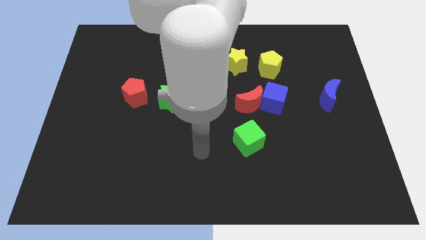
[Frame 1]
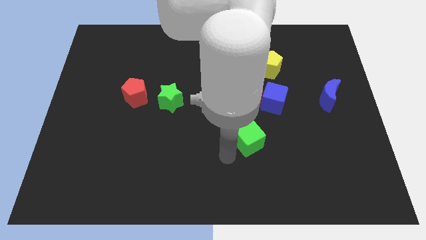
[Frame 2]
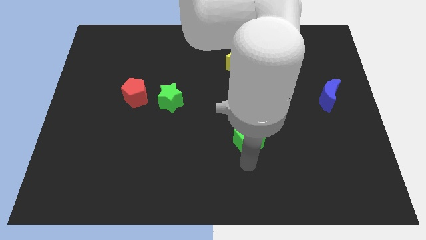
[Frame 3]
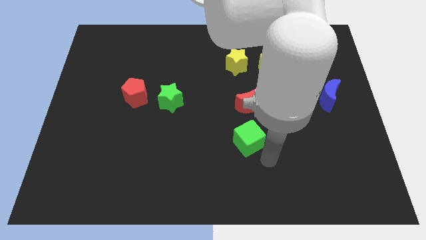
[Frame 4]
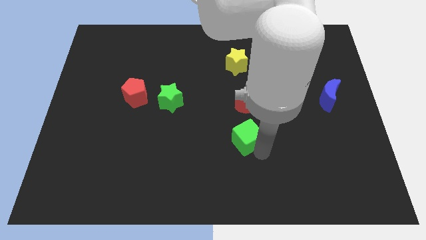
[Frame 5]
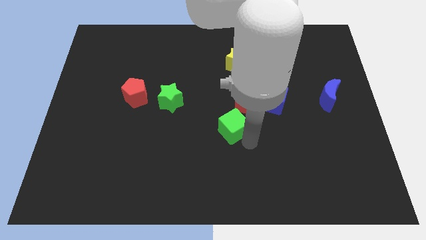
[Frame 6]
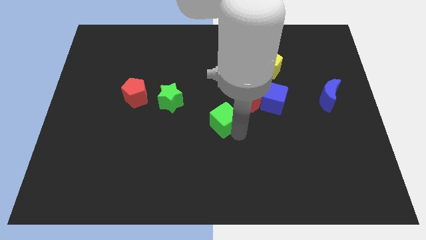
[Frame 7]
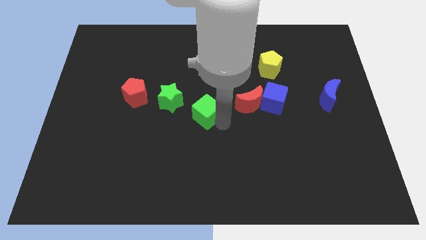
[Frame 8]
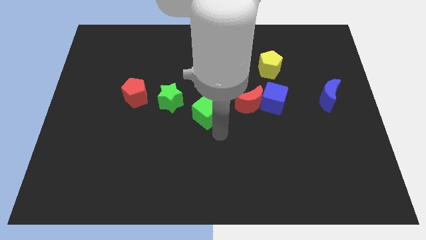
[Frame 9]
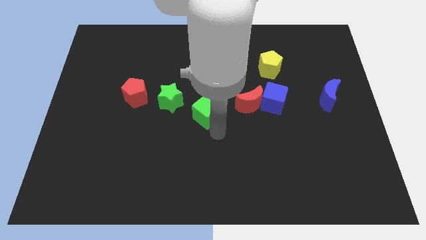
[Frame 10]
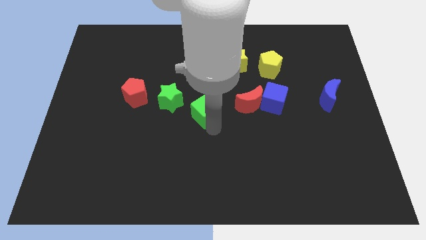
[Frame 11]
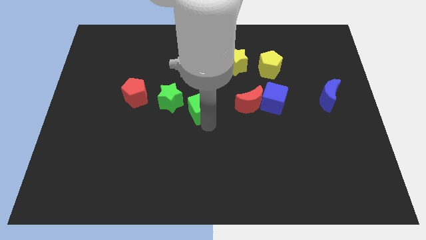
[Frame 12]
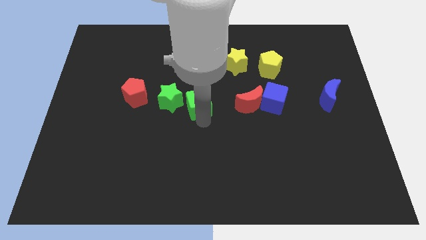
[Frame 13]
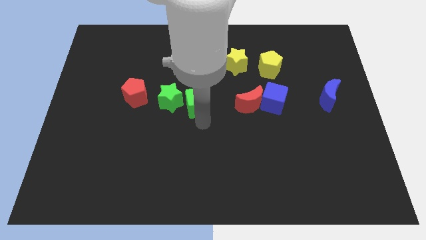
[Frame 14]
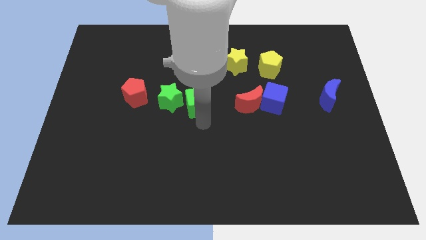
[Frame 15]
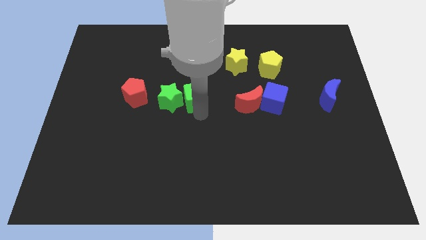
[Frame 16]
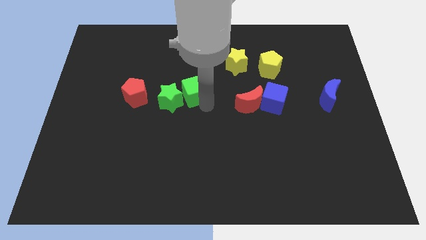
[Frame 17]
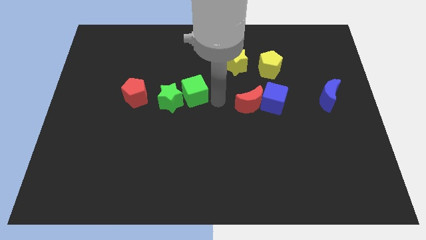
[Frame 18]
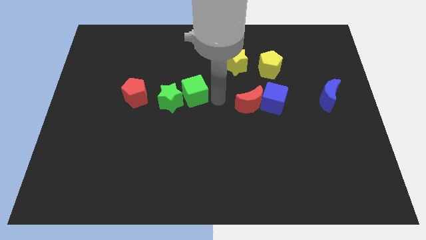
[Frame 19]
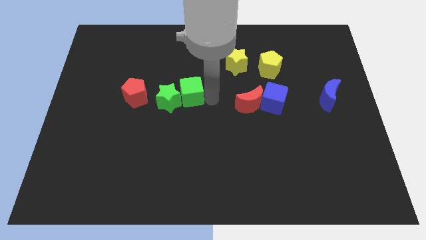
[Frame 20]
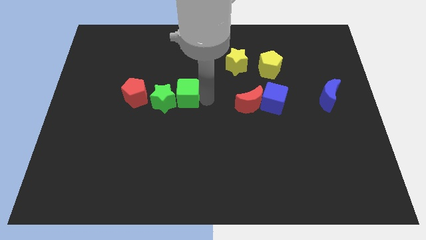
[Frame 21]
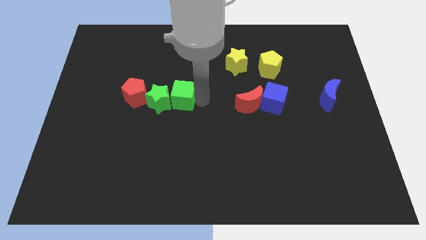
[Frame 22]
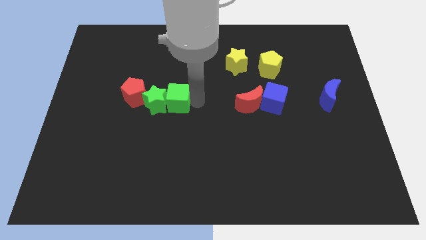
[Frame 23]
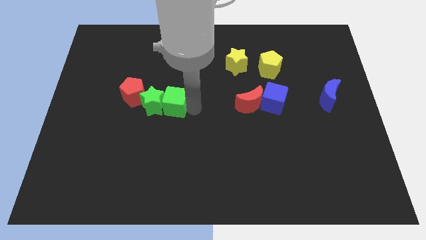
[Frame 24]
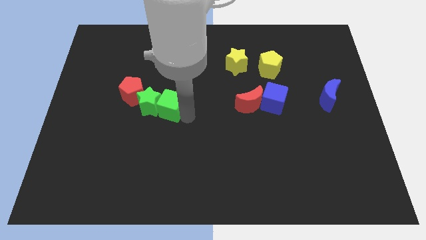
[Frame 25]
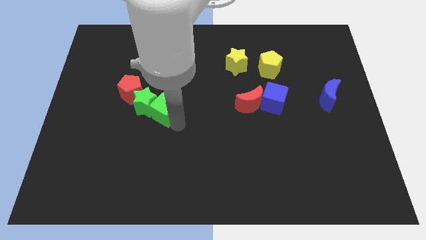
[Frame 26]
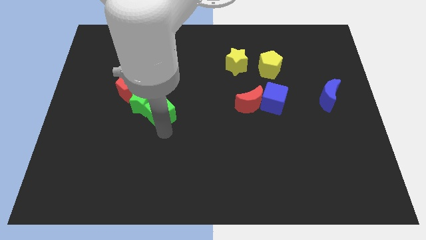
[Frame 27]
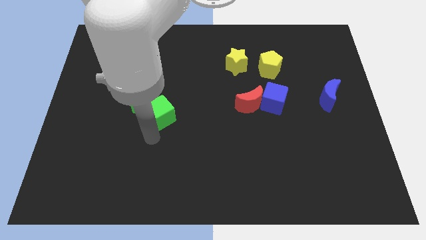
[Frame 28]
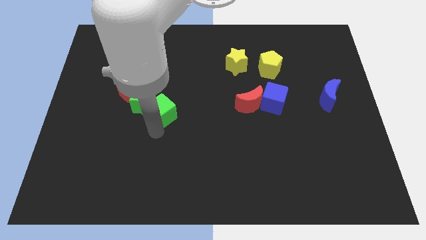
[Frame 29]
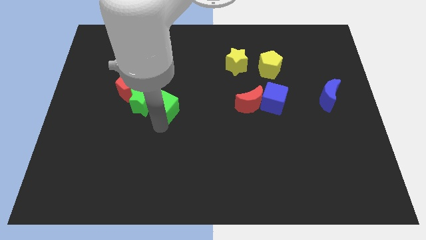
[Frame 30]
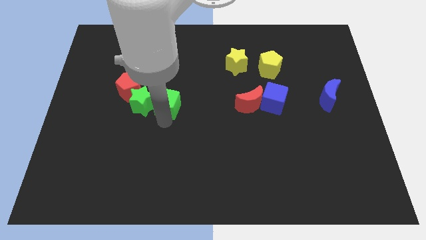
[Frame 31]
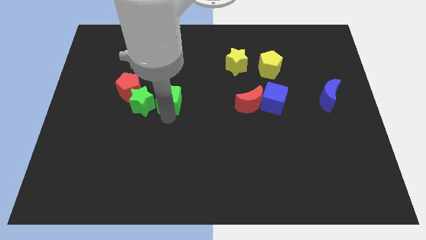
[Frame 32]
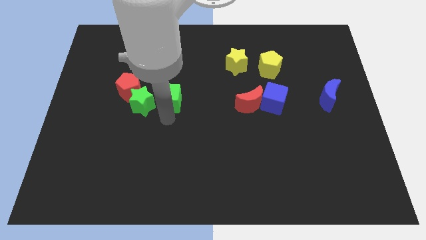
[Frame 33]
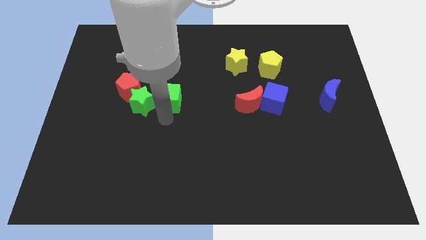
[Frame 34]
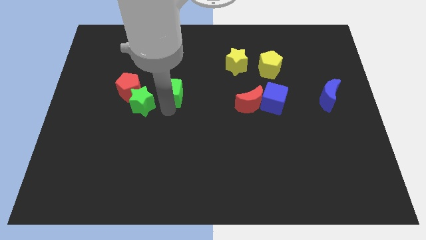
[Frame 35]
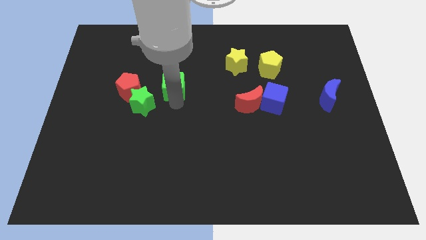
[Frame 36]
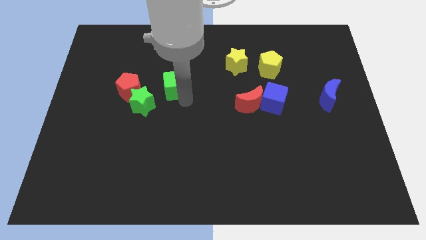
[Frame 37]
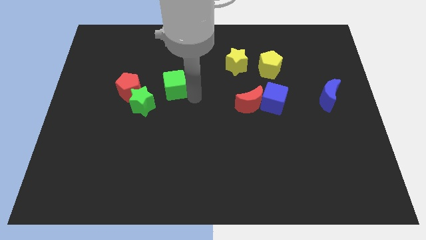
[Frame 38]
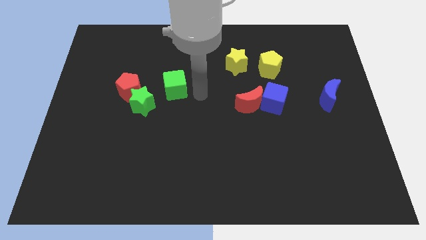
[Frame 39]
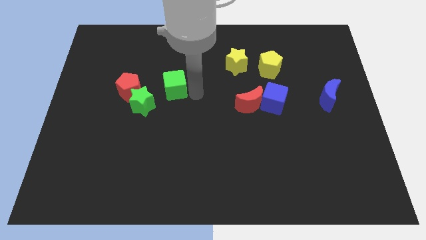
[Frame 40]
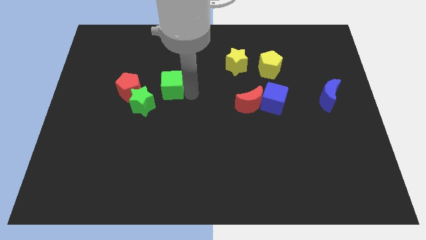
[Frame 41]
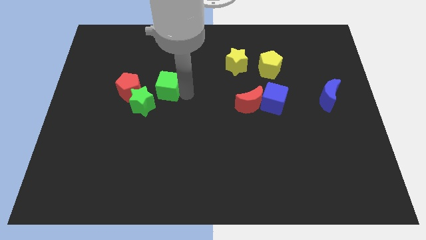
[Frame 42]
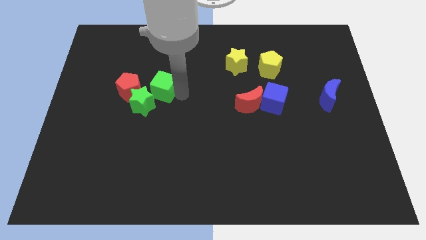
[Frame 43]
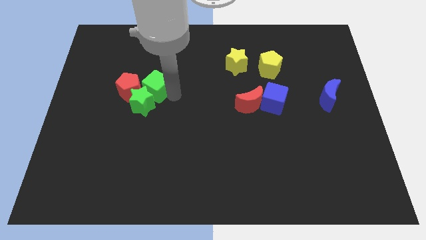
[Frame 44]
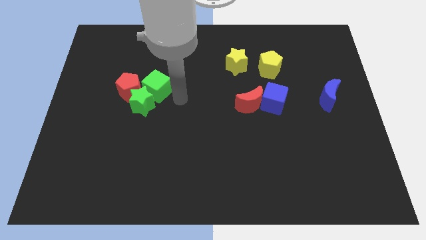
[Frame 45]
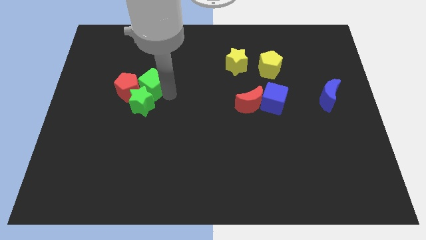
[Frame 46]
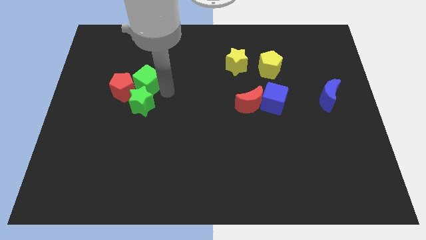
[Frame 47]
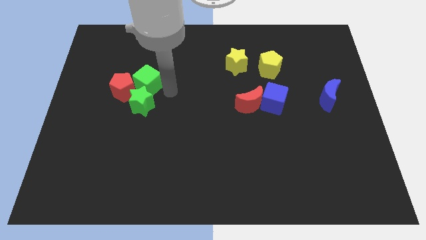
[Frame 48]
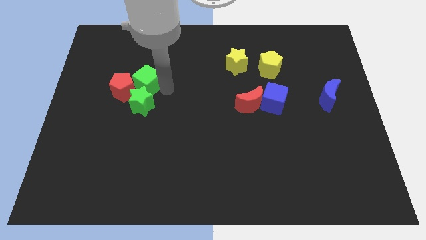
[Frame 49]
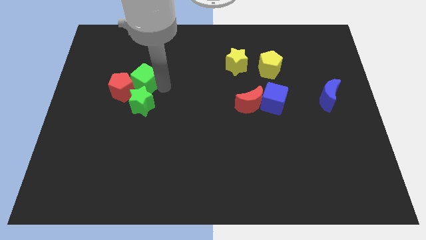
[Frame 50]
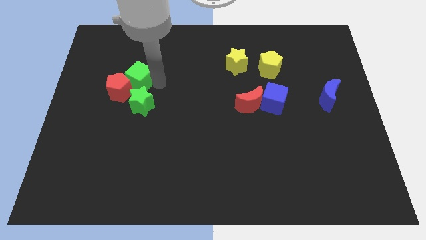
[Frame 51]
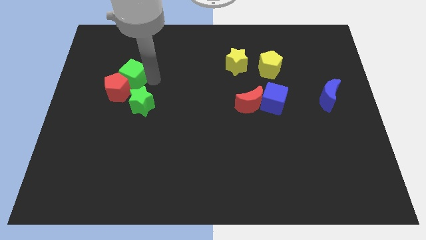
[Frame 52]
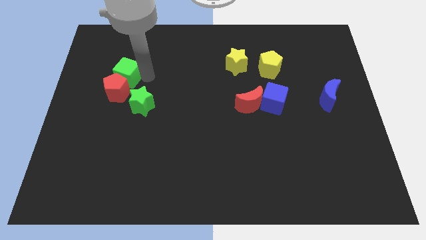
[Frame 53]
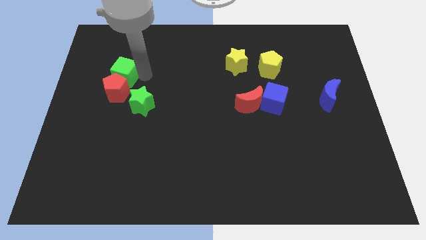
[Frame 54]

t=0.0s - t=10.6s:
move the green cube diagonally up and to the left of the red pentagon
